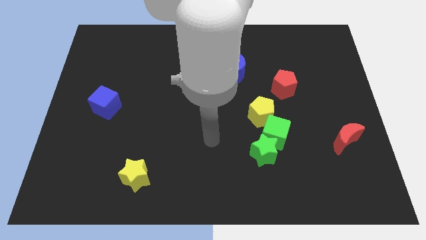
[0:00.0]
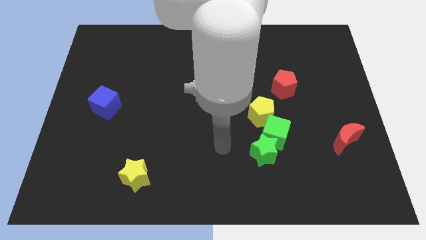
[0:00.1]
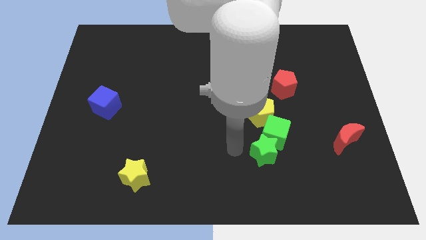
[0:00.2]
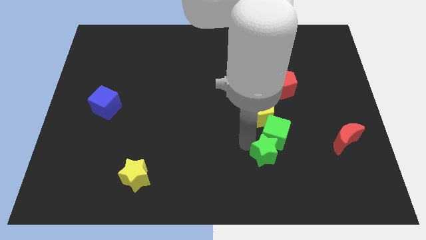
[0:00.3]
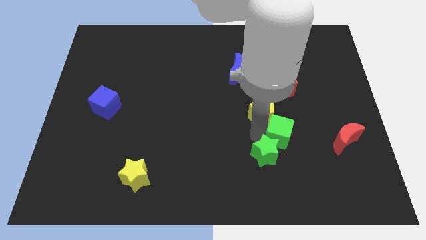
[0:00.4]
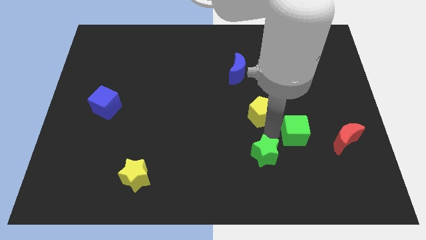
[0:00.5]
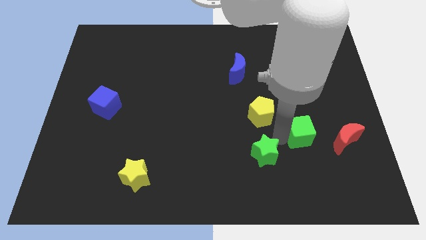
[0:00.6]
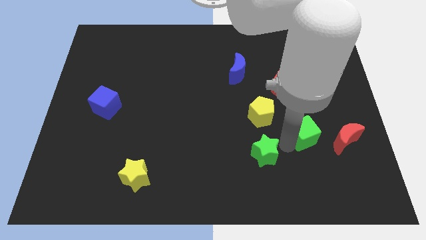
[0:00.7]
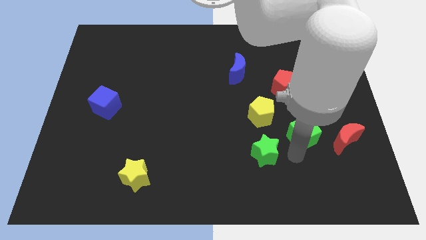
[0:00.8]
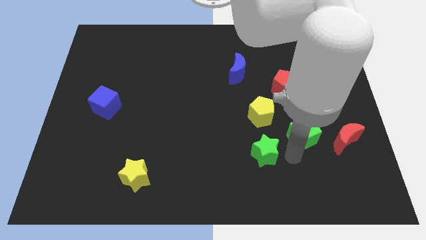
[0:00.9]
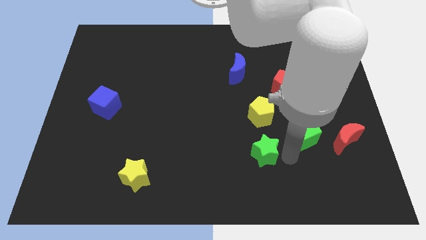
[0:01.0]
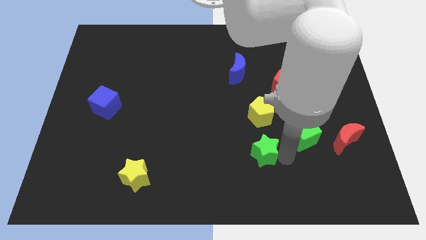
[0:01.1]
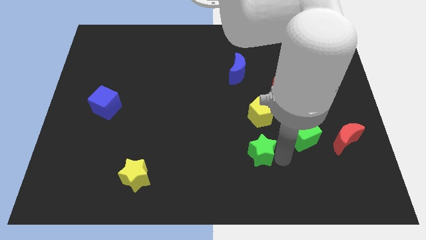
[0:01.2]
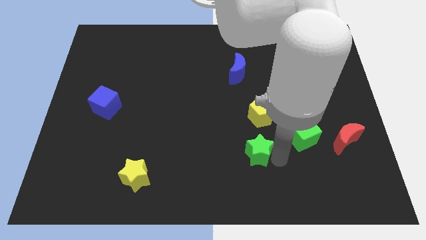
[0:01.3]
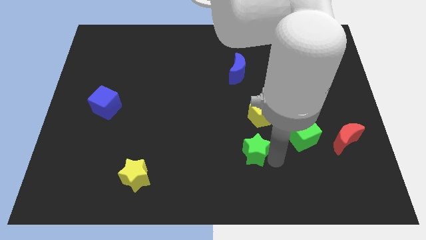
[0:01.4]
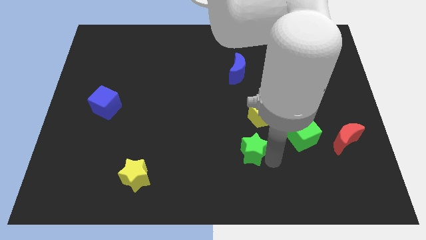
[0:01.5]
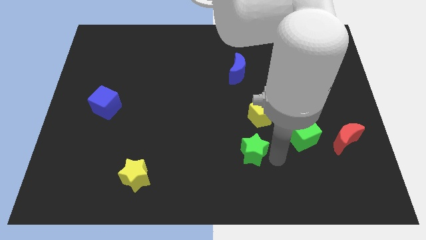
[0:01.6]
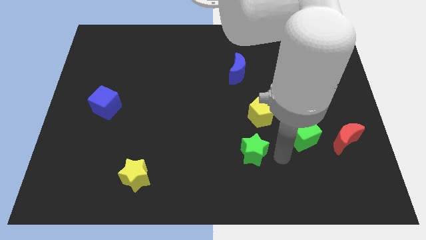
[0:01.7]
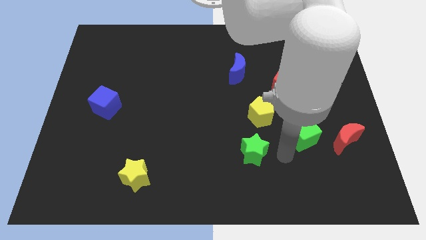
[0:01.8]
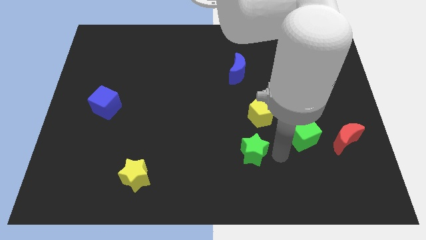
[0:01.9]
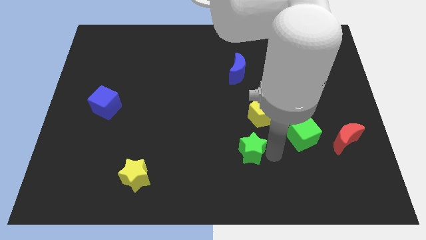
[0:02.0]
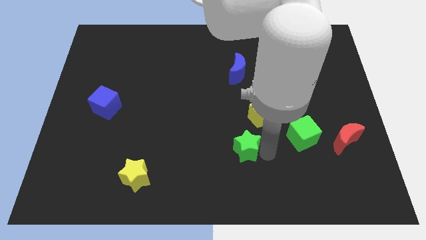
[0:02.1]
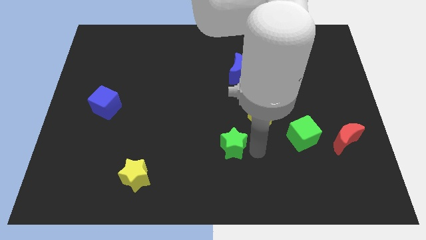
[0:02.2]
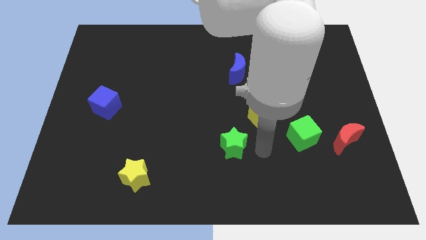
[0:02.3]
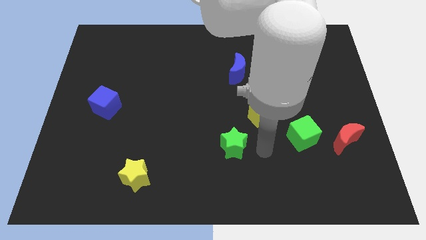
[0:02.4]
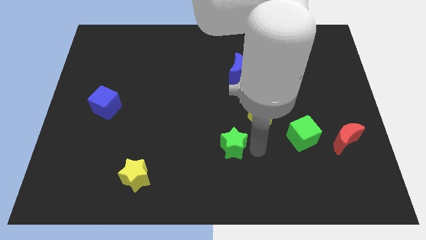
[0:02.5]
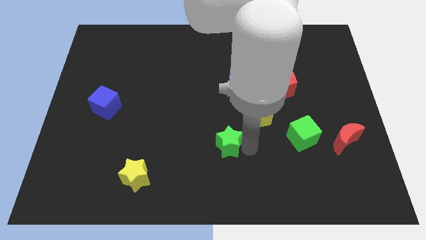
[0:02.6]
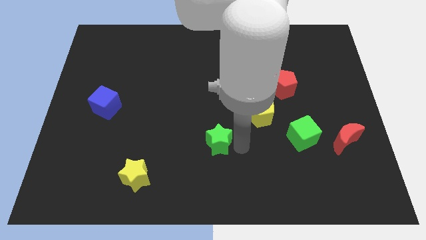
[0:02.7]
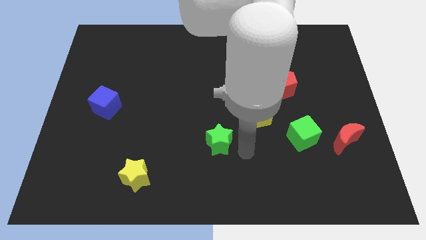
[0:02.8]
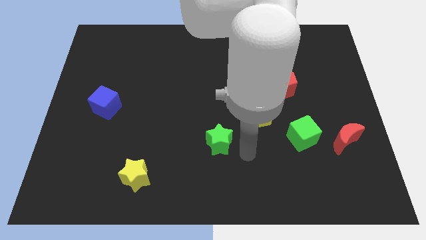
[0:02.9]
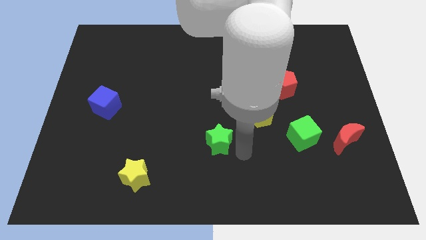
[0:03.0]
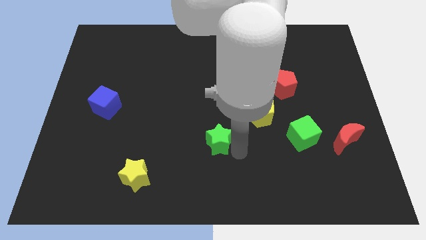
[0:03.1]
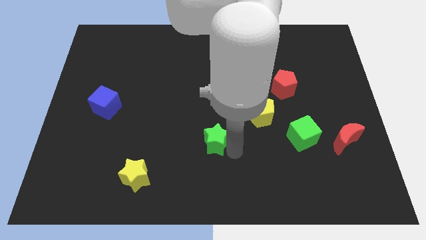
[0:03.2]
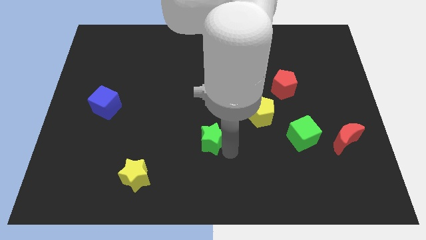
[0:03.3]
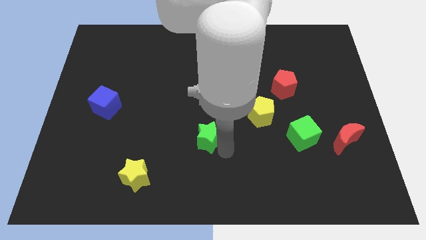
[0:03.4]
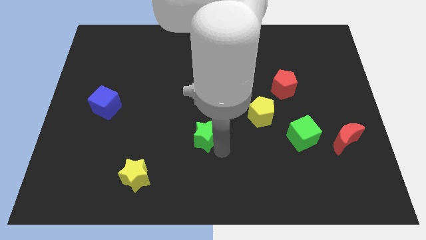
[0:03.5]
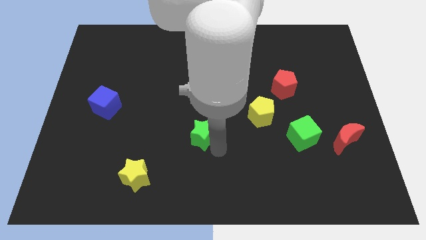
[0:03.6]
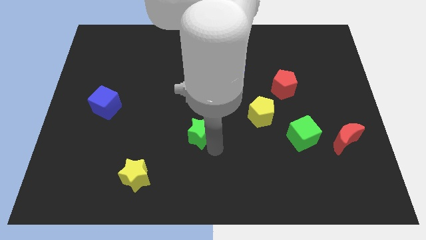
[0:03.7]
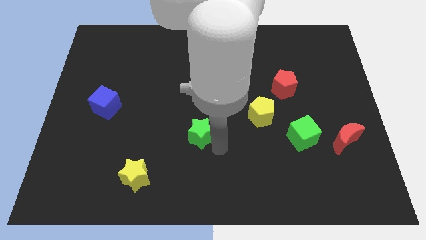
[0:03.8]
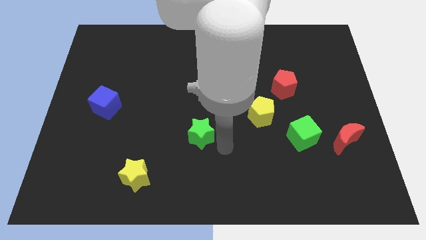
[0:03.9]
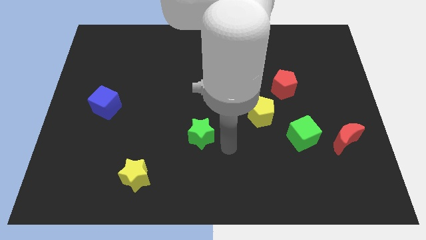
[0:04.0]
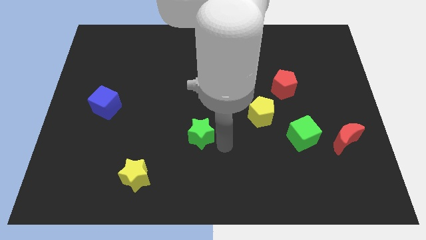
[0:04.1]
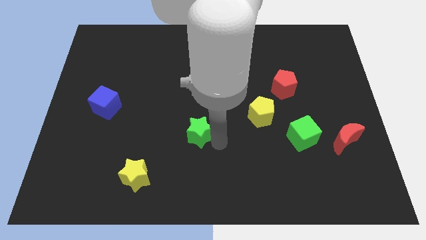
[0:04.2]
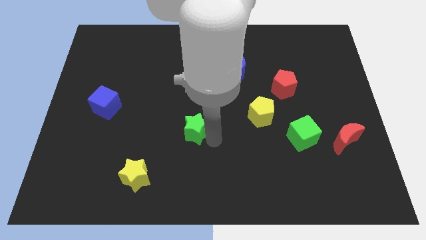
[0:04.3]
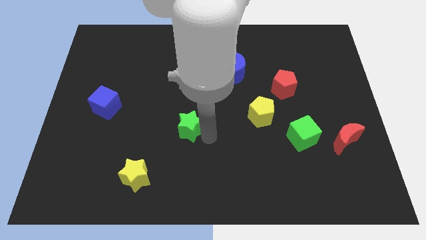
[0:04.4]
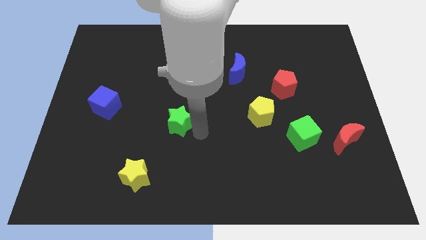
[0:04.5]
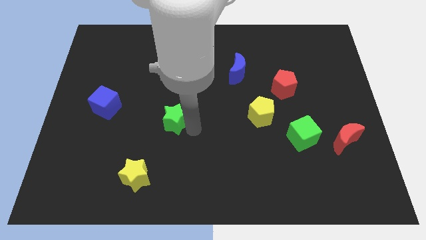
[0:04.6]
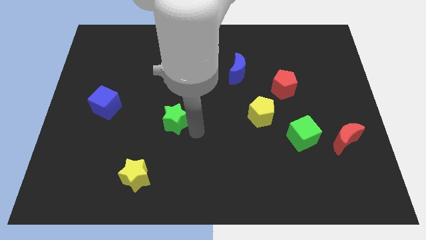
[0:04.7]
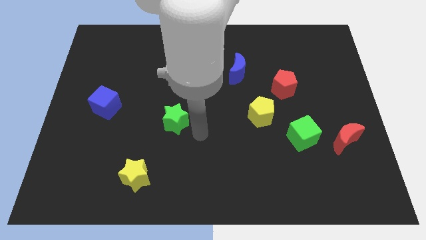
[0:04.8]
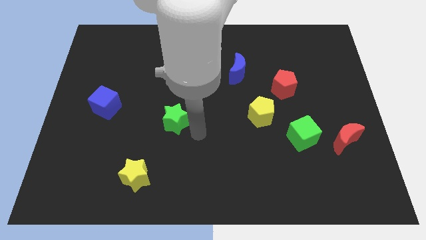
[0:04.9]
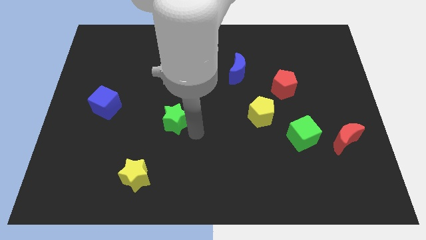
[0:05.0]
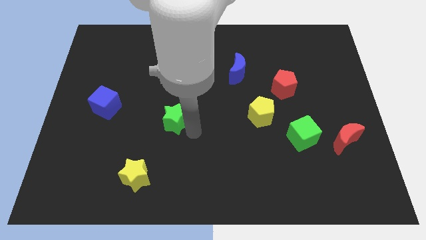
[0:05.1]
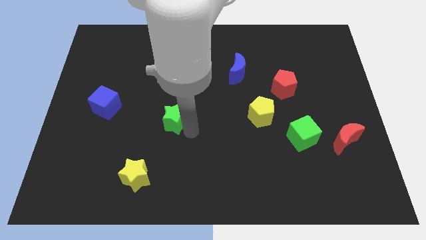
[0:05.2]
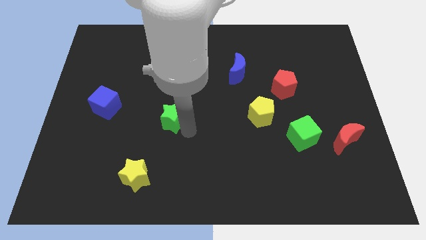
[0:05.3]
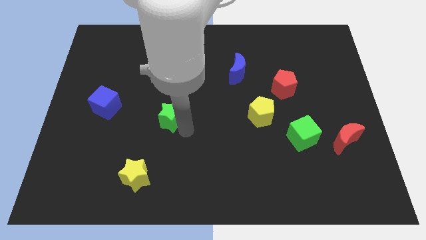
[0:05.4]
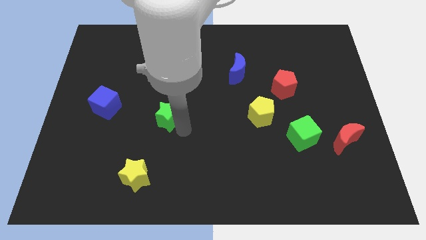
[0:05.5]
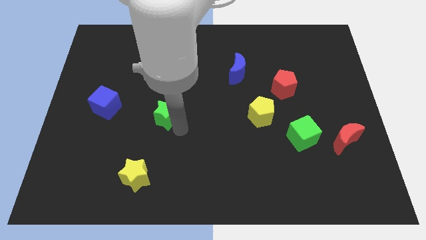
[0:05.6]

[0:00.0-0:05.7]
slide the green star to the right of the blue cube

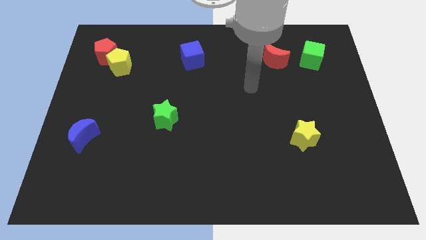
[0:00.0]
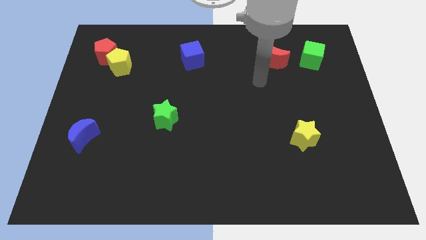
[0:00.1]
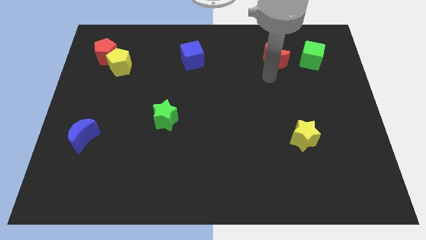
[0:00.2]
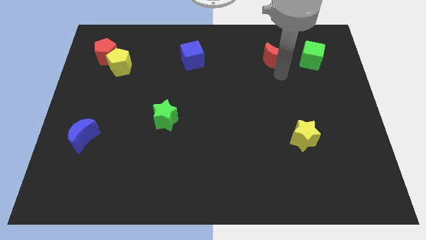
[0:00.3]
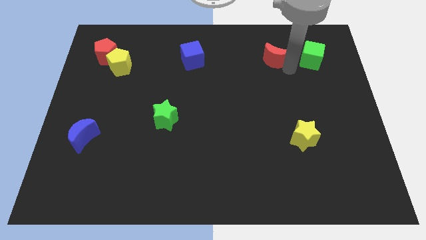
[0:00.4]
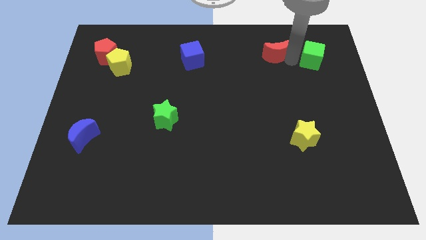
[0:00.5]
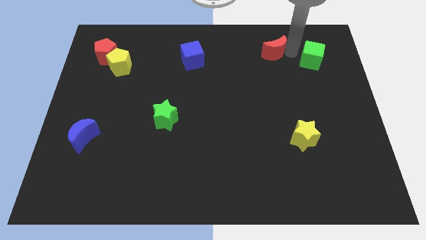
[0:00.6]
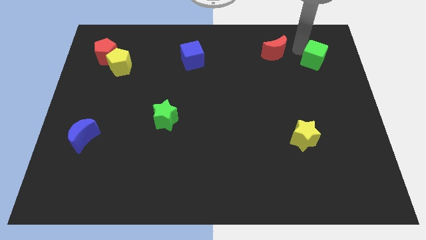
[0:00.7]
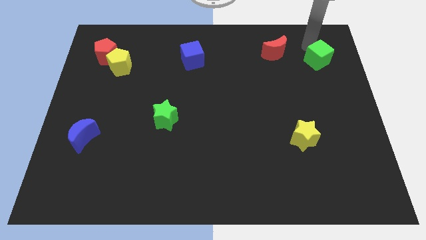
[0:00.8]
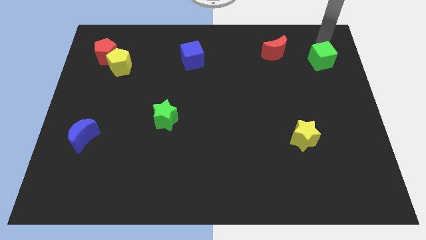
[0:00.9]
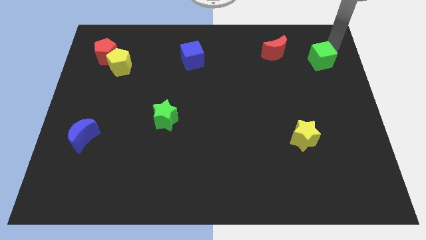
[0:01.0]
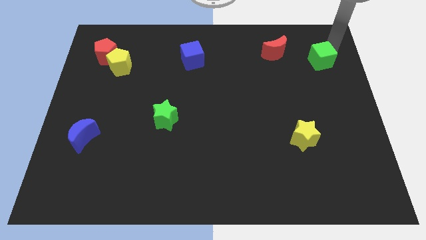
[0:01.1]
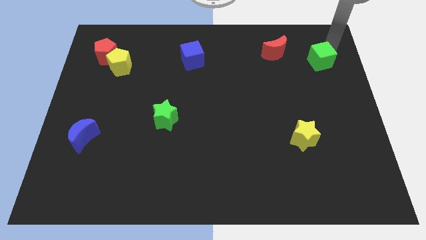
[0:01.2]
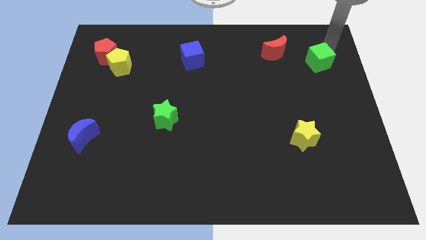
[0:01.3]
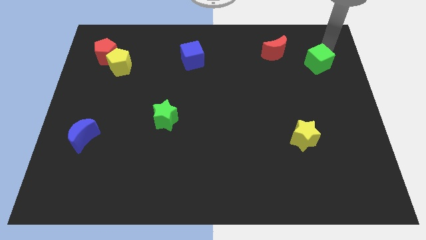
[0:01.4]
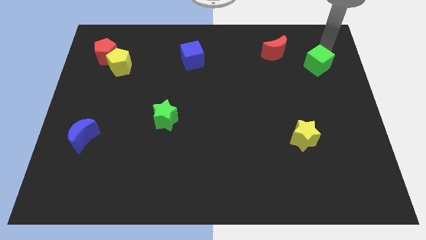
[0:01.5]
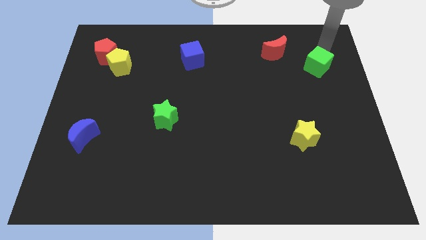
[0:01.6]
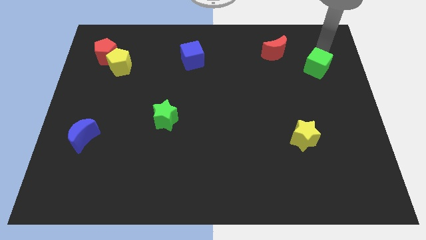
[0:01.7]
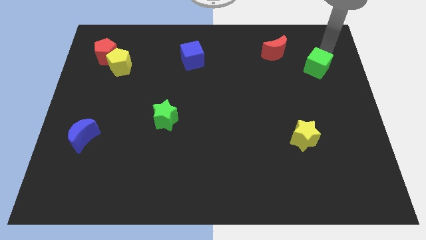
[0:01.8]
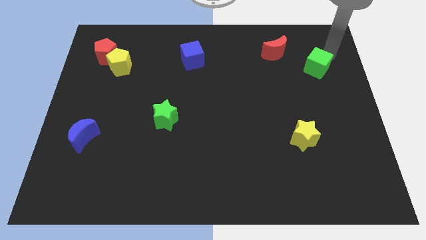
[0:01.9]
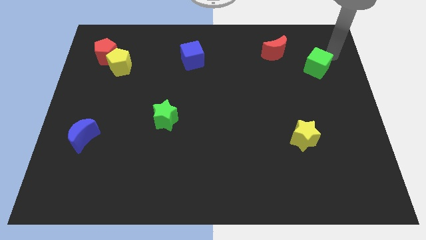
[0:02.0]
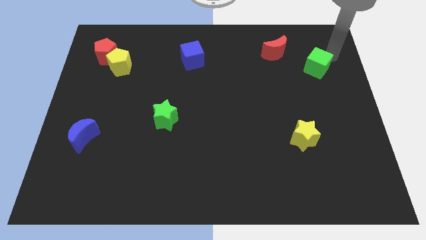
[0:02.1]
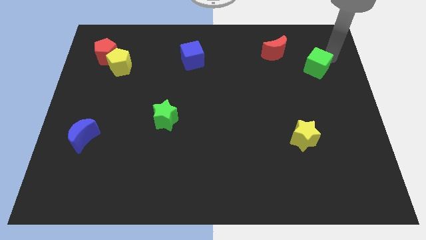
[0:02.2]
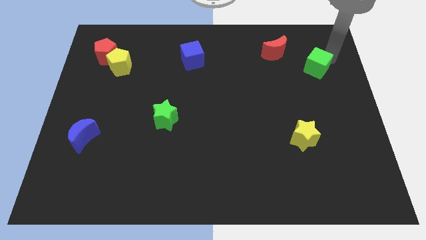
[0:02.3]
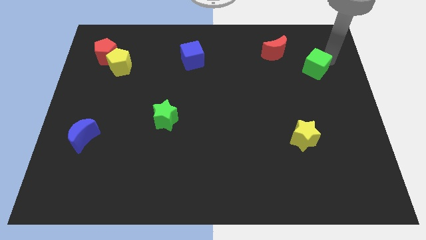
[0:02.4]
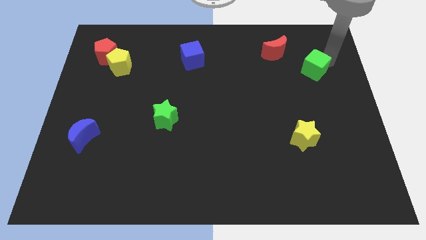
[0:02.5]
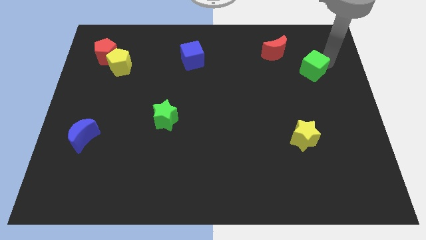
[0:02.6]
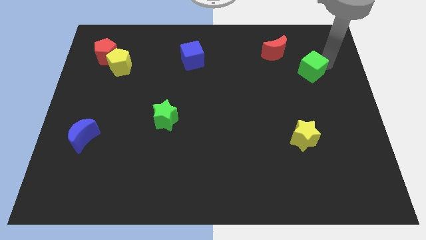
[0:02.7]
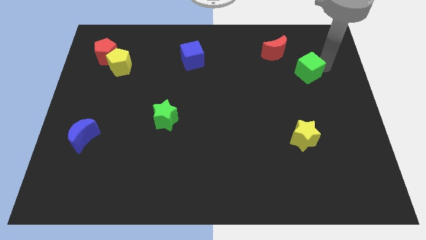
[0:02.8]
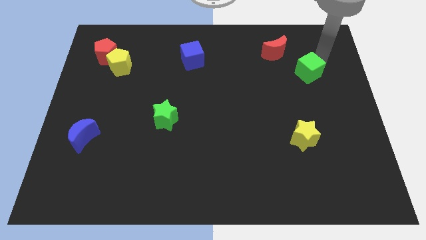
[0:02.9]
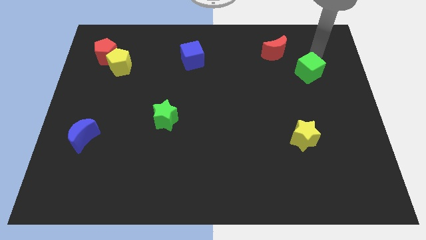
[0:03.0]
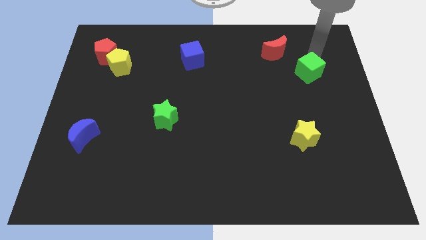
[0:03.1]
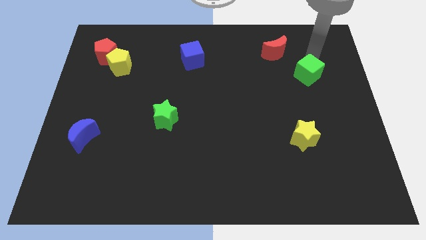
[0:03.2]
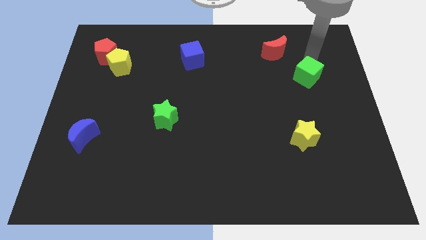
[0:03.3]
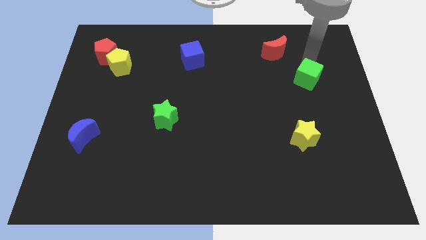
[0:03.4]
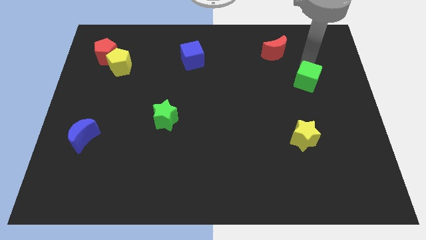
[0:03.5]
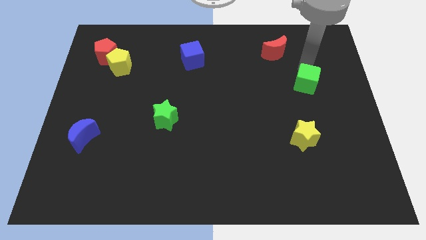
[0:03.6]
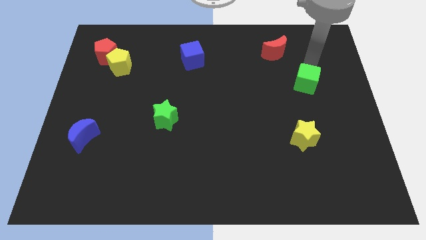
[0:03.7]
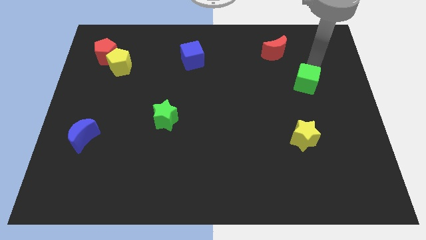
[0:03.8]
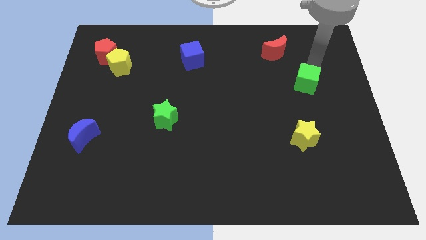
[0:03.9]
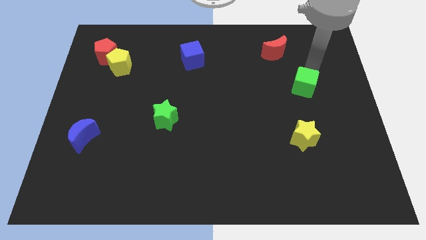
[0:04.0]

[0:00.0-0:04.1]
put the green cube above the yellow star
